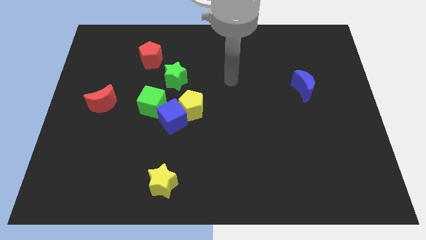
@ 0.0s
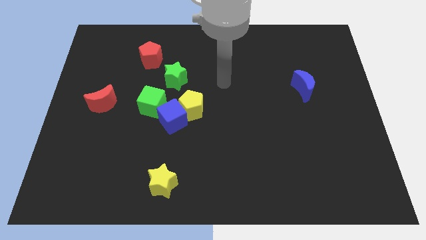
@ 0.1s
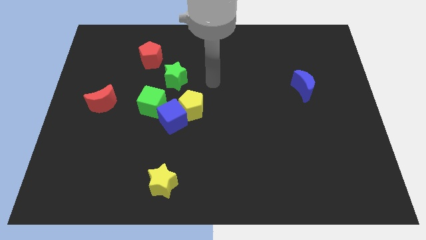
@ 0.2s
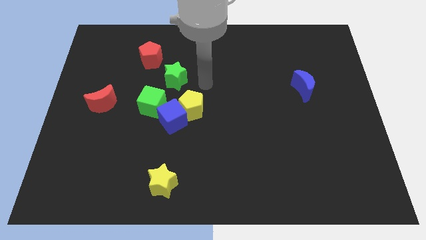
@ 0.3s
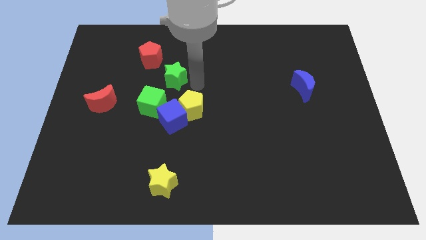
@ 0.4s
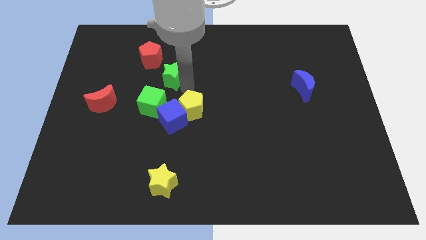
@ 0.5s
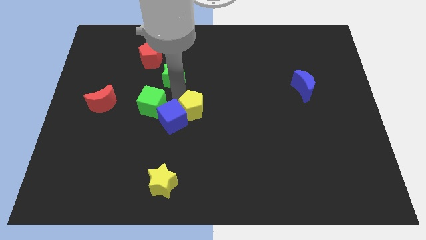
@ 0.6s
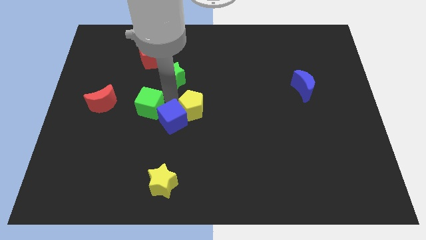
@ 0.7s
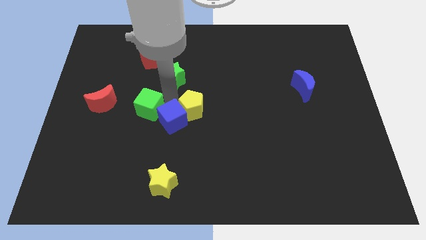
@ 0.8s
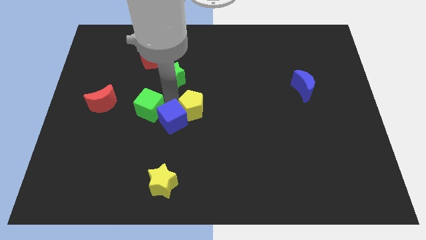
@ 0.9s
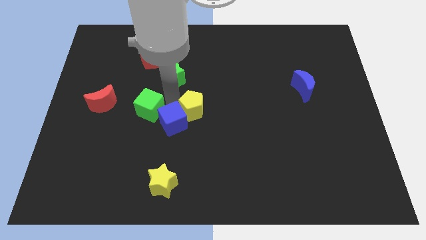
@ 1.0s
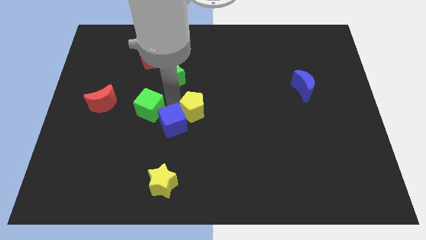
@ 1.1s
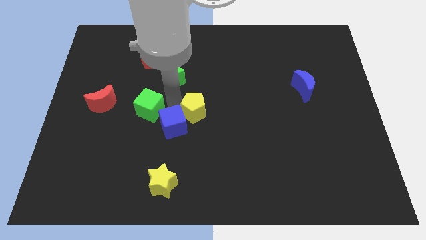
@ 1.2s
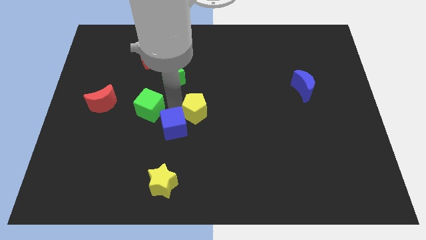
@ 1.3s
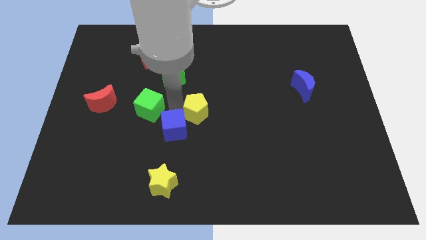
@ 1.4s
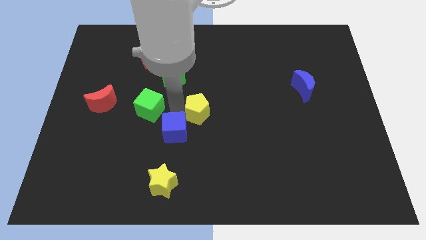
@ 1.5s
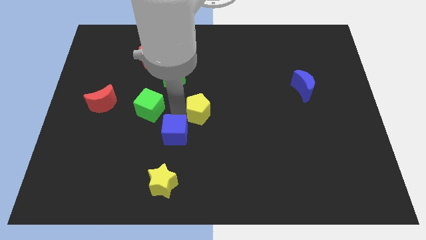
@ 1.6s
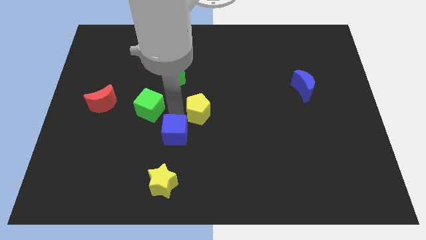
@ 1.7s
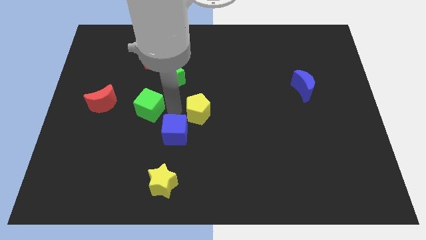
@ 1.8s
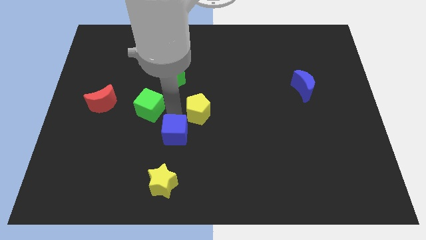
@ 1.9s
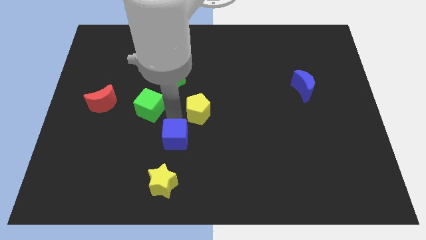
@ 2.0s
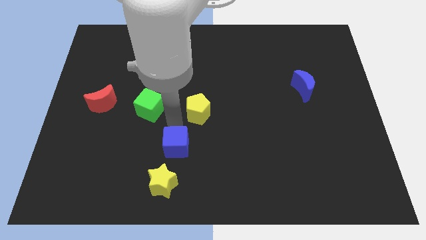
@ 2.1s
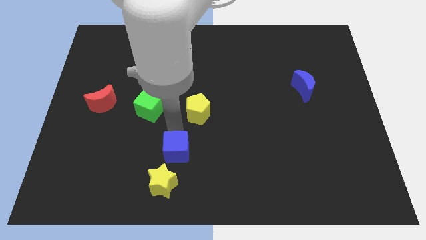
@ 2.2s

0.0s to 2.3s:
pull the blue cube apart from the yellow pentagon and green cube

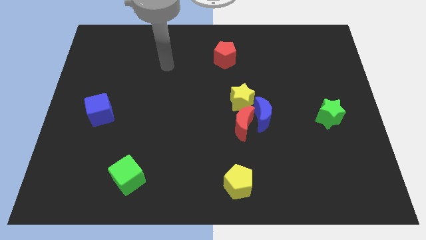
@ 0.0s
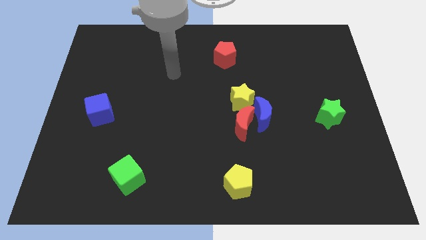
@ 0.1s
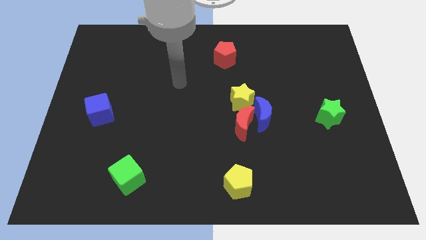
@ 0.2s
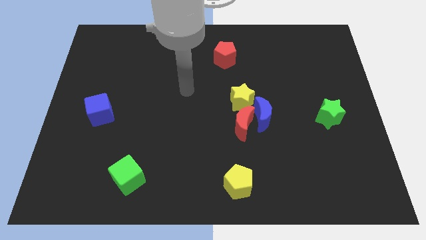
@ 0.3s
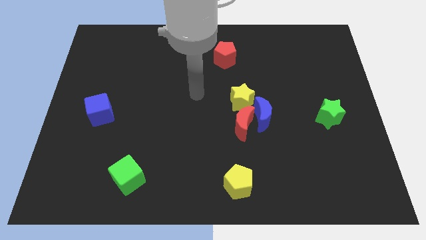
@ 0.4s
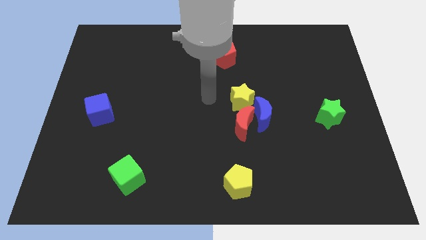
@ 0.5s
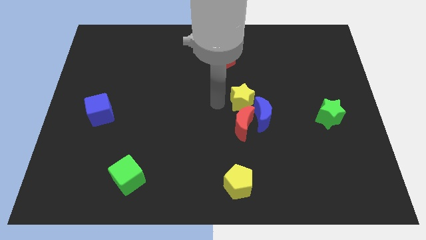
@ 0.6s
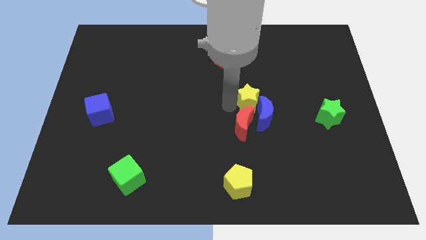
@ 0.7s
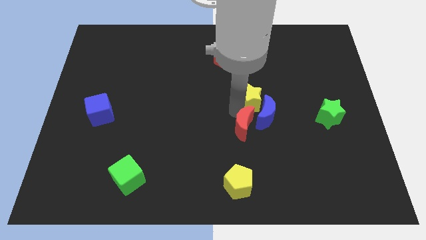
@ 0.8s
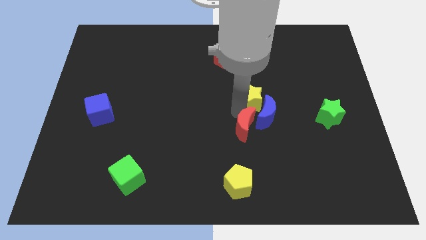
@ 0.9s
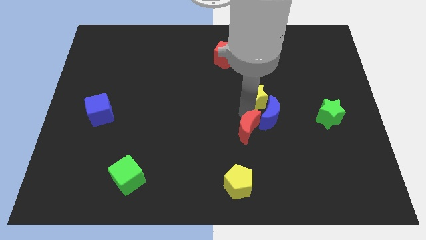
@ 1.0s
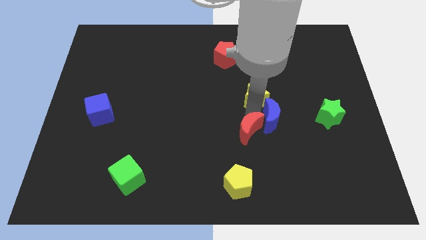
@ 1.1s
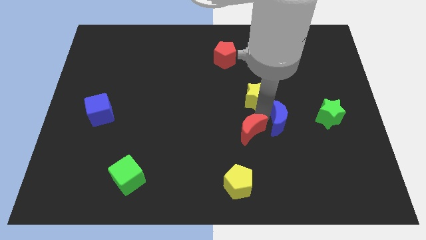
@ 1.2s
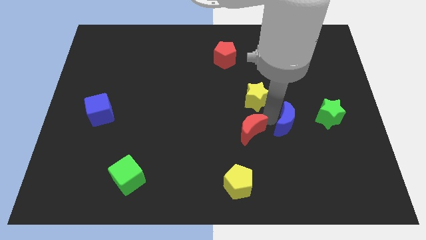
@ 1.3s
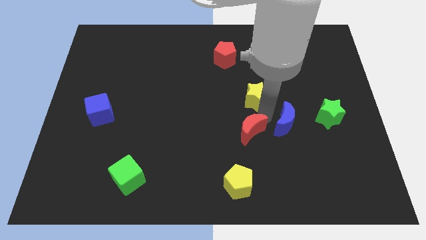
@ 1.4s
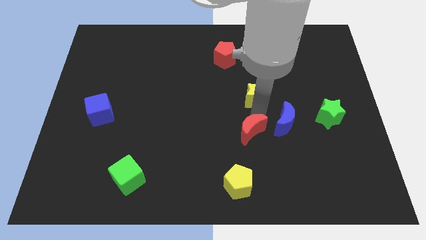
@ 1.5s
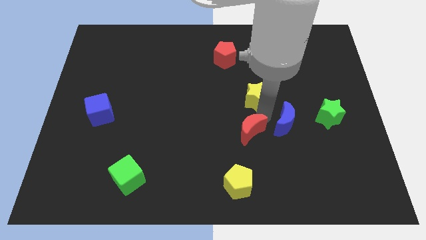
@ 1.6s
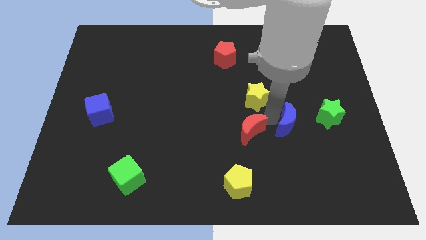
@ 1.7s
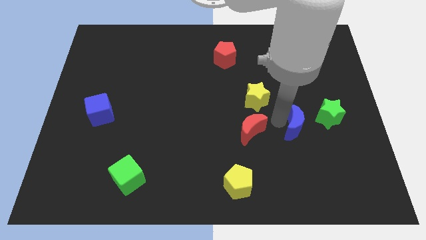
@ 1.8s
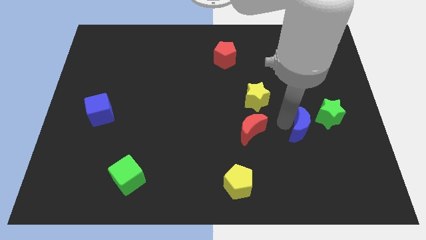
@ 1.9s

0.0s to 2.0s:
separate the blue moon from the red moon and yellow star

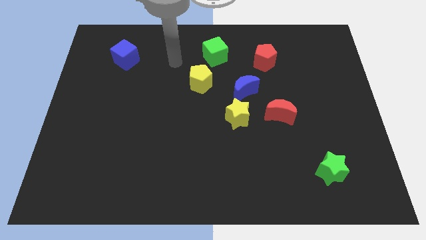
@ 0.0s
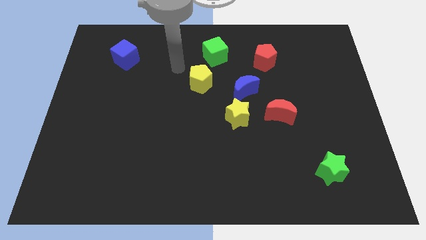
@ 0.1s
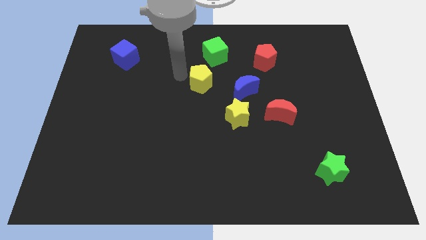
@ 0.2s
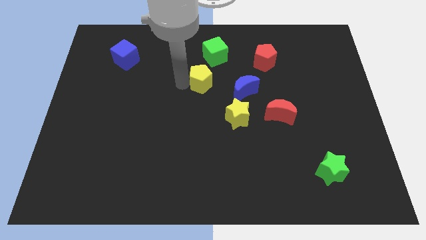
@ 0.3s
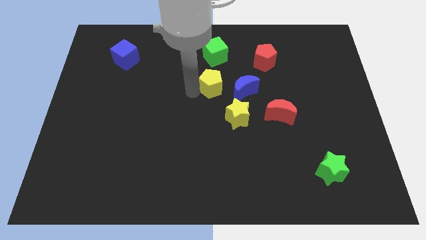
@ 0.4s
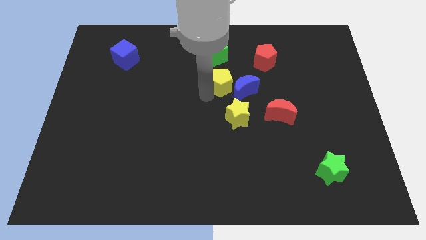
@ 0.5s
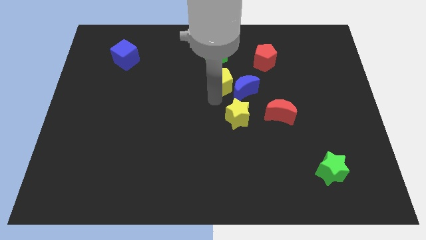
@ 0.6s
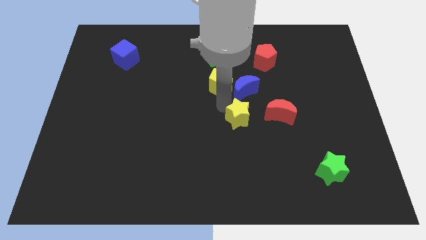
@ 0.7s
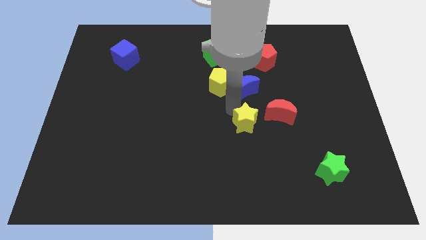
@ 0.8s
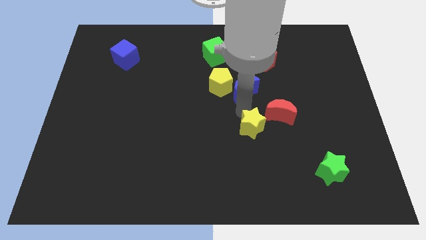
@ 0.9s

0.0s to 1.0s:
pull the blue moon apart from the yellow star

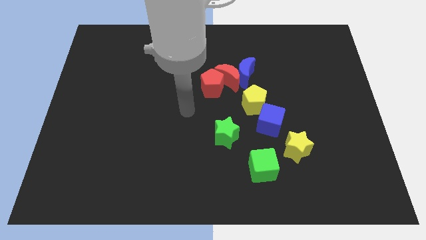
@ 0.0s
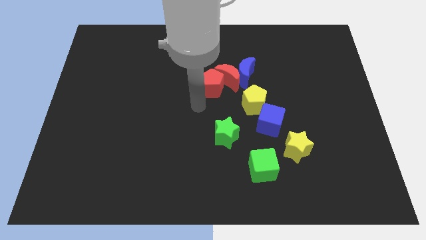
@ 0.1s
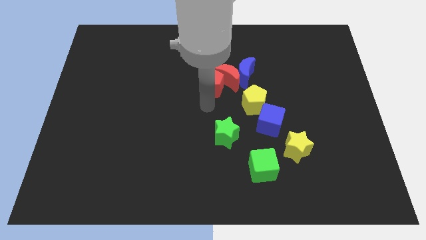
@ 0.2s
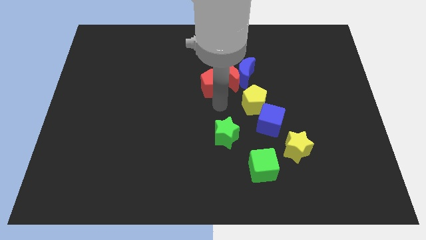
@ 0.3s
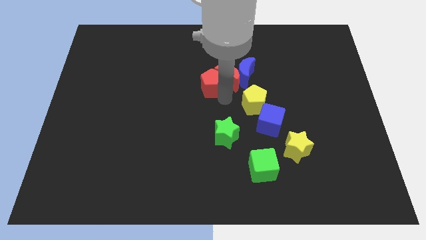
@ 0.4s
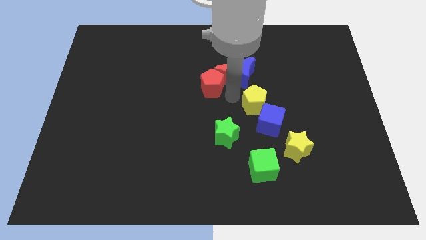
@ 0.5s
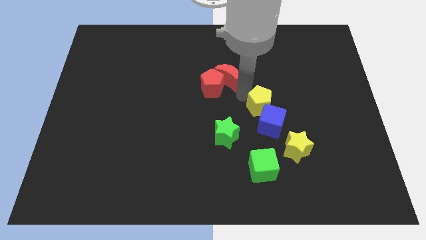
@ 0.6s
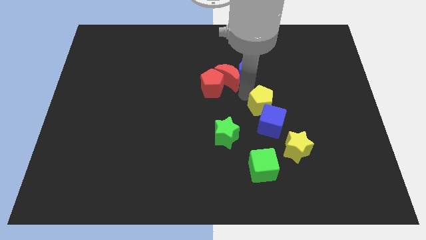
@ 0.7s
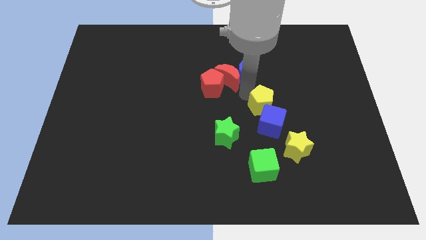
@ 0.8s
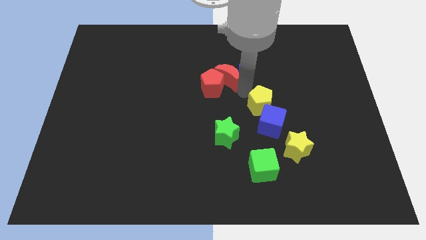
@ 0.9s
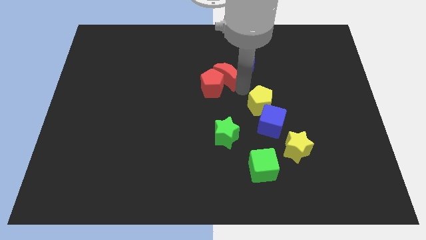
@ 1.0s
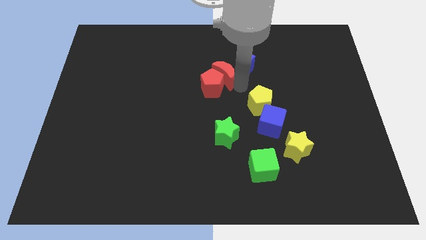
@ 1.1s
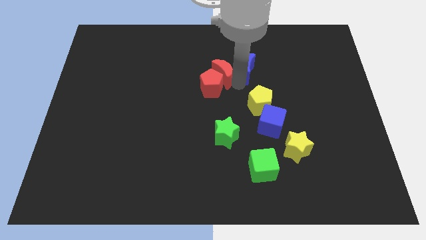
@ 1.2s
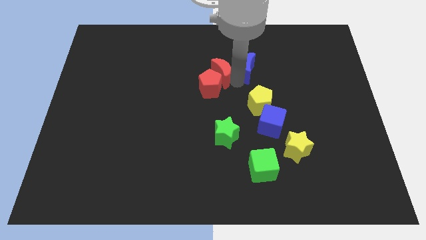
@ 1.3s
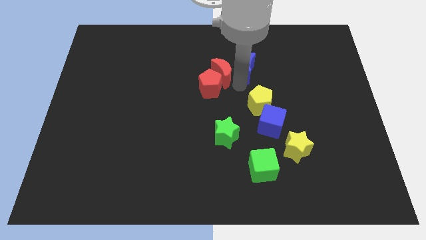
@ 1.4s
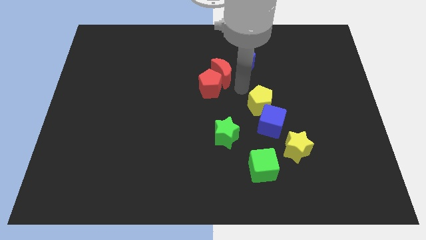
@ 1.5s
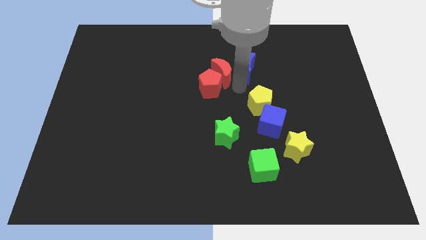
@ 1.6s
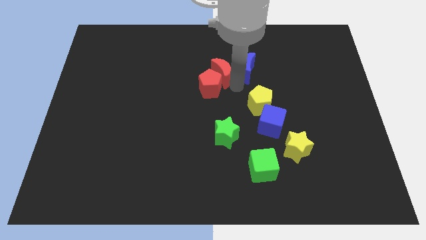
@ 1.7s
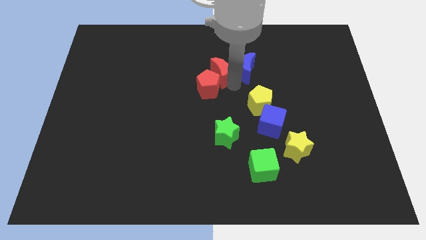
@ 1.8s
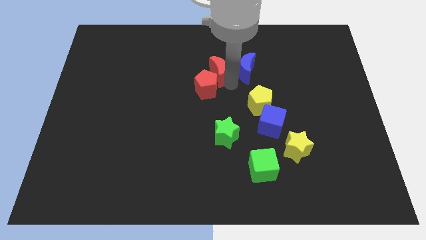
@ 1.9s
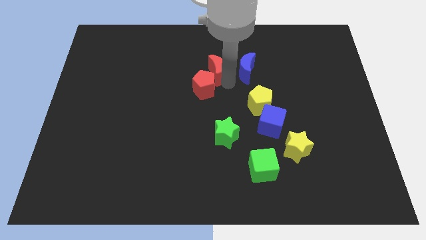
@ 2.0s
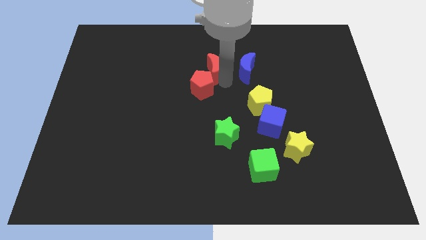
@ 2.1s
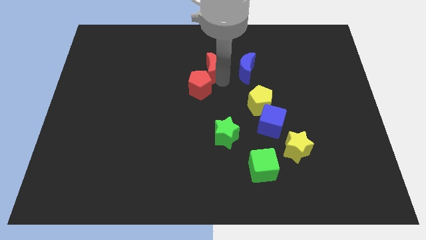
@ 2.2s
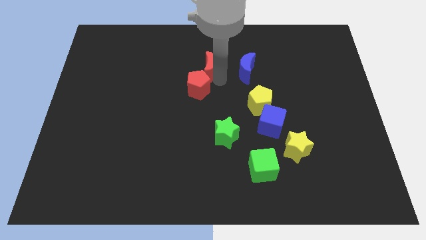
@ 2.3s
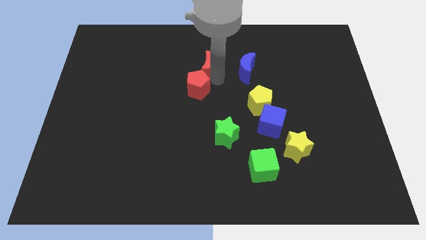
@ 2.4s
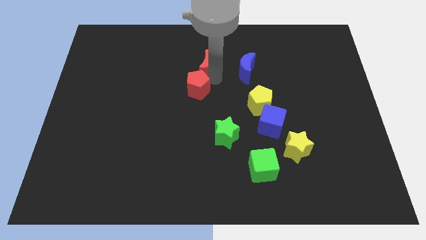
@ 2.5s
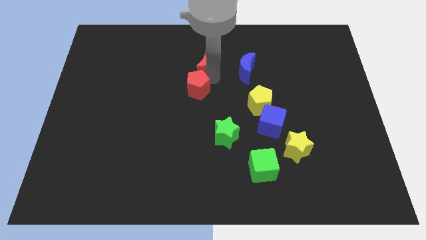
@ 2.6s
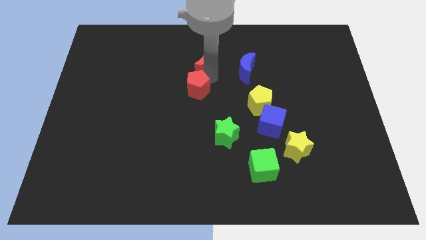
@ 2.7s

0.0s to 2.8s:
move the red moon away from the blue moon, red pentagon, and yellow pentagon

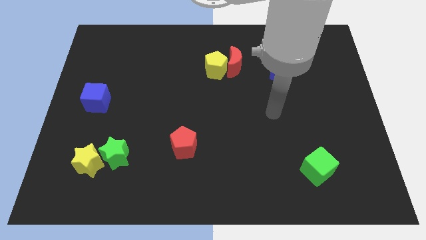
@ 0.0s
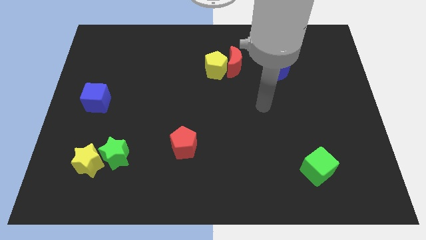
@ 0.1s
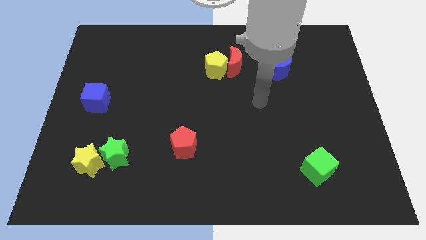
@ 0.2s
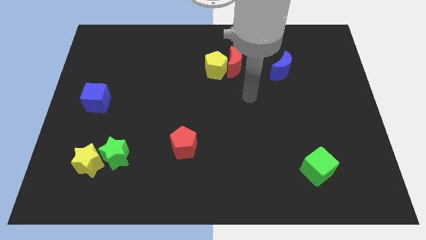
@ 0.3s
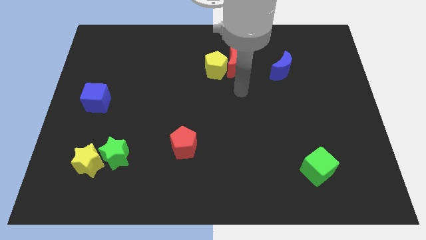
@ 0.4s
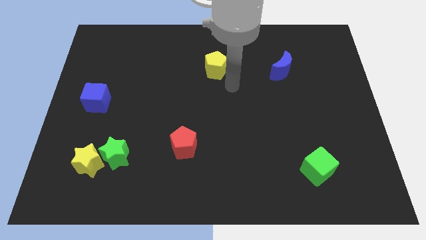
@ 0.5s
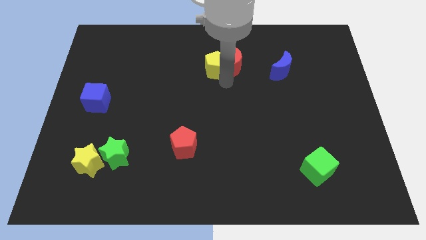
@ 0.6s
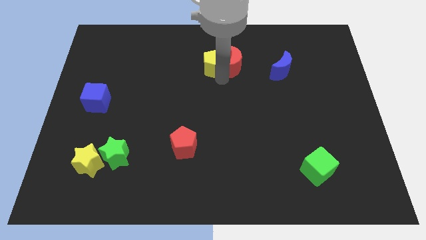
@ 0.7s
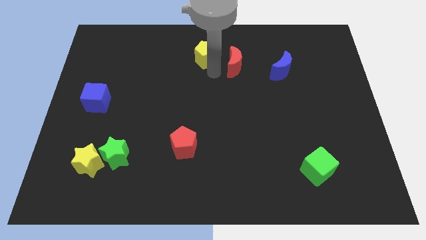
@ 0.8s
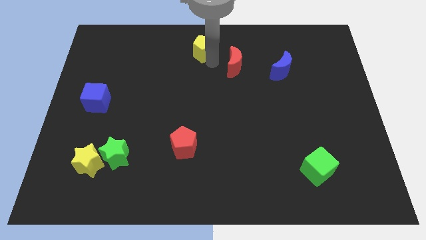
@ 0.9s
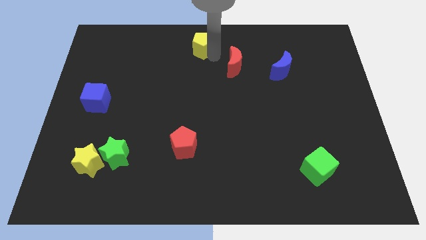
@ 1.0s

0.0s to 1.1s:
pull the red moon apart from the yellow pentagon

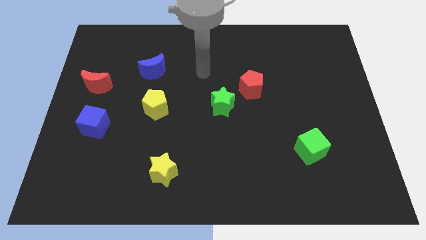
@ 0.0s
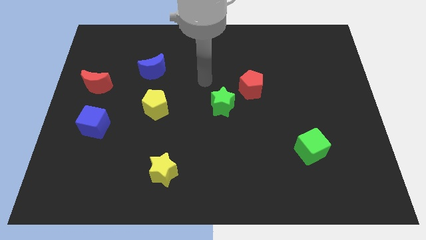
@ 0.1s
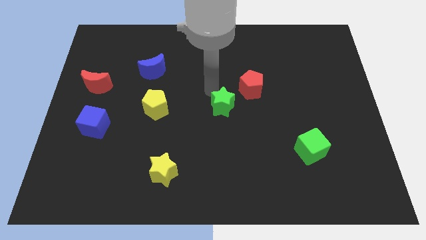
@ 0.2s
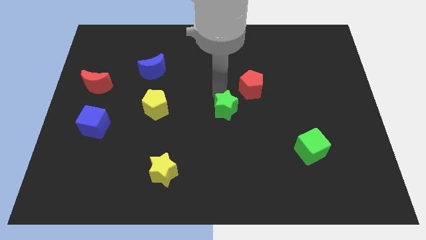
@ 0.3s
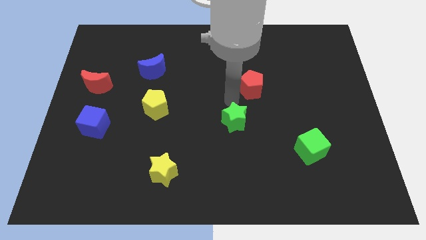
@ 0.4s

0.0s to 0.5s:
separate the red pentagon from the green star
